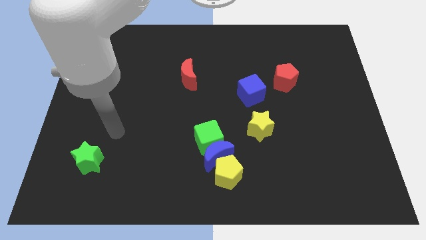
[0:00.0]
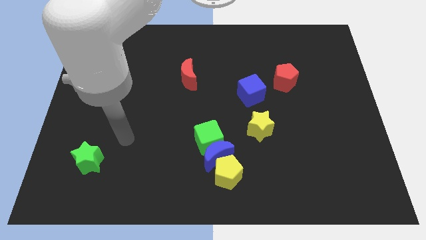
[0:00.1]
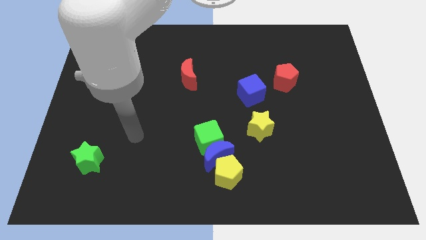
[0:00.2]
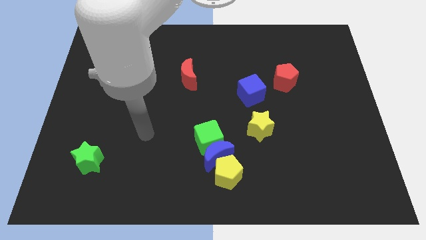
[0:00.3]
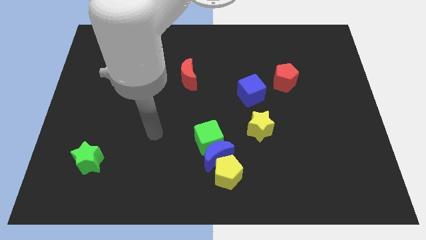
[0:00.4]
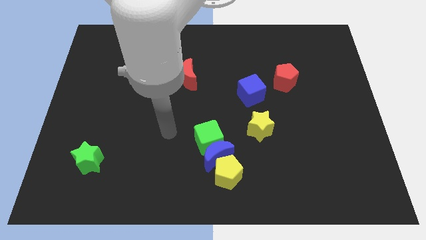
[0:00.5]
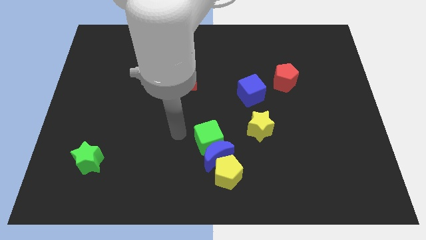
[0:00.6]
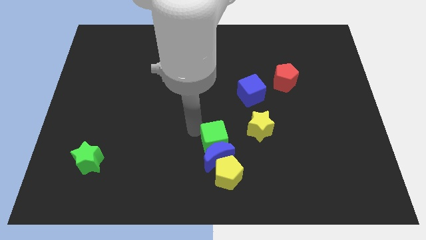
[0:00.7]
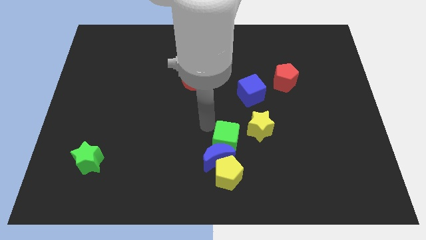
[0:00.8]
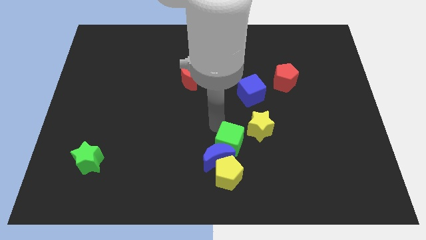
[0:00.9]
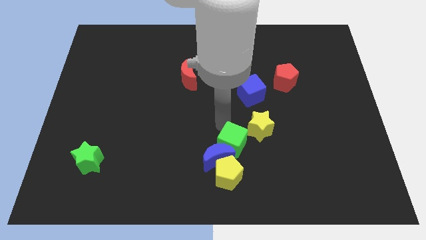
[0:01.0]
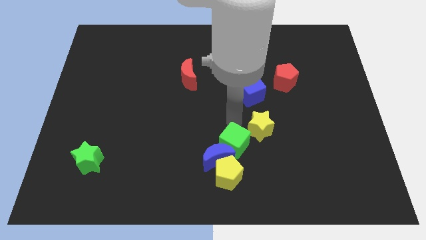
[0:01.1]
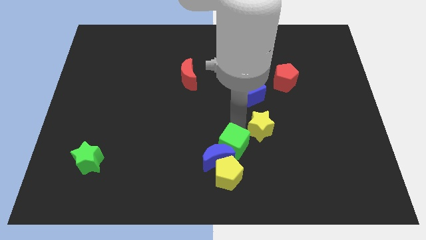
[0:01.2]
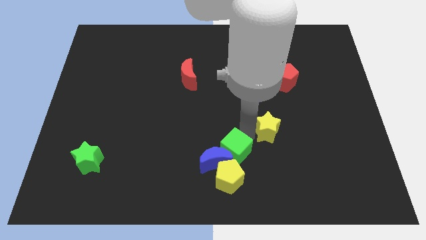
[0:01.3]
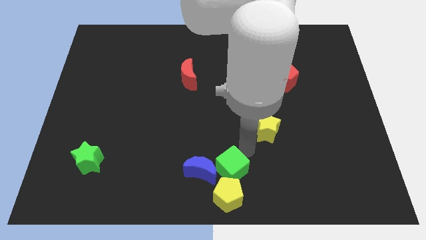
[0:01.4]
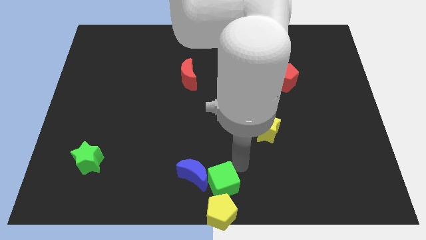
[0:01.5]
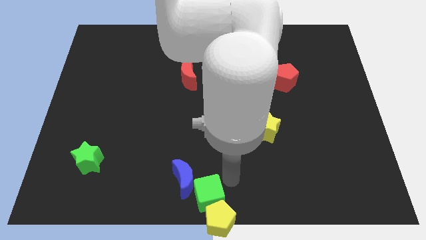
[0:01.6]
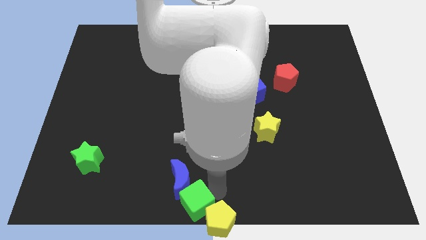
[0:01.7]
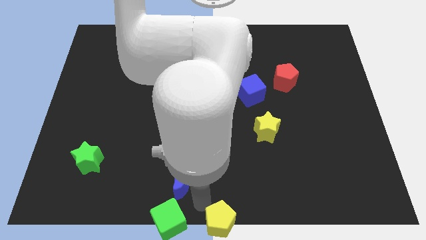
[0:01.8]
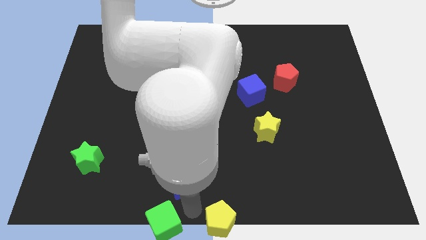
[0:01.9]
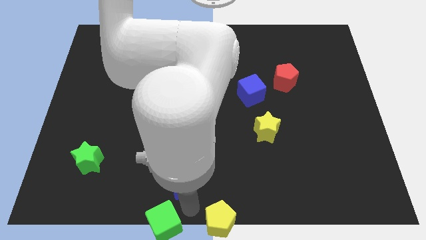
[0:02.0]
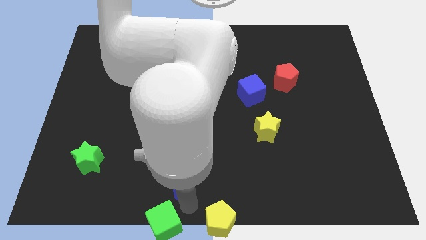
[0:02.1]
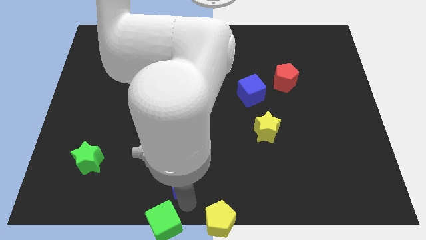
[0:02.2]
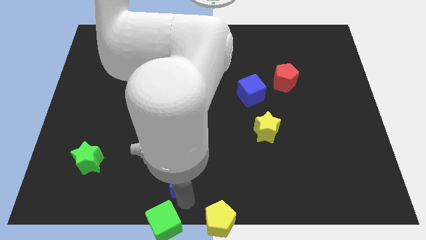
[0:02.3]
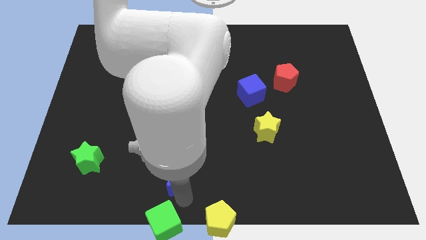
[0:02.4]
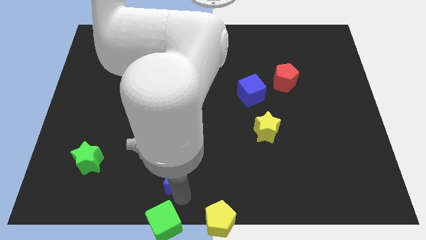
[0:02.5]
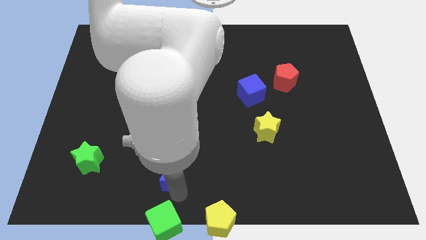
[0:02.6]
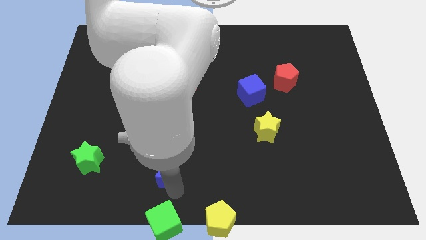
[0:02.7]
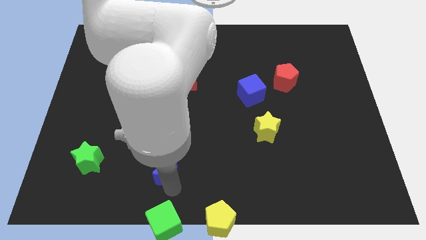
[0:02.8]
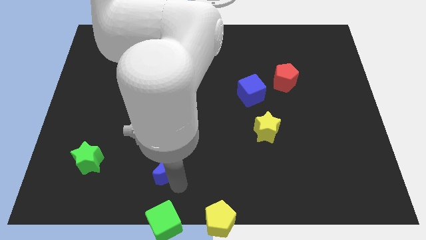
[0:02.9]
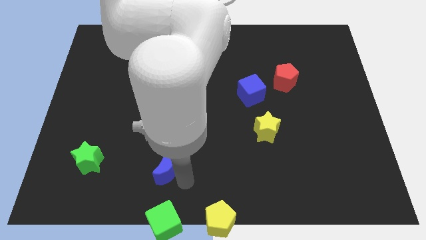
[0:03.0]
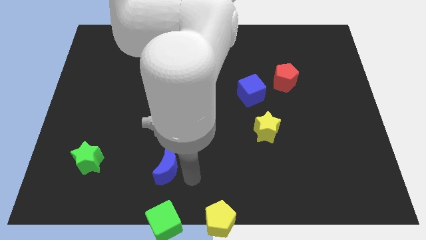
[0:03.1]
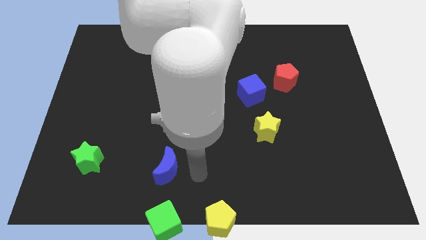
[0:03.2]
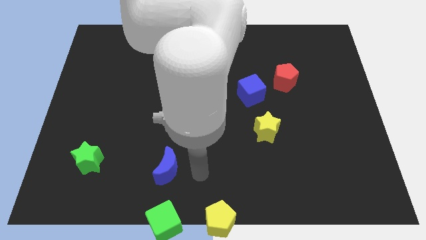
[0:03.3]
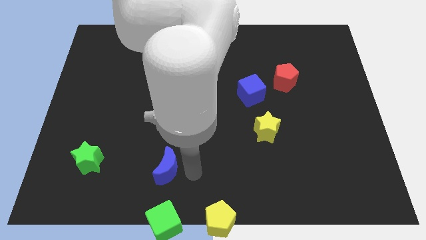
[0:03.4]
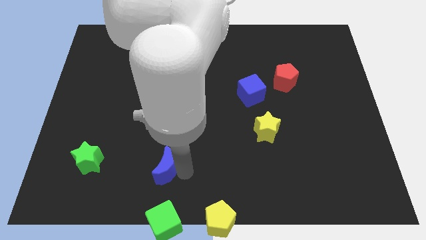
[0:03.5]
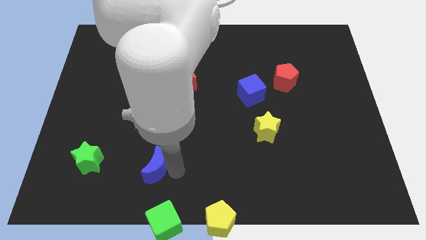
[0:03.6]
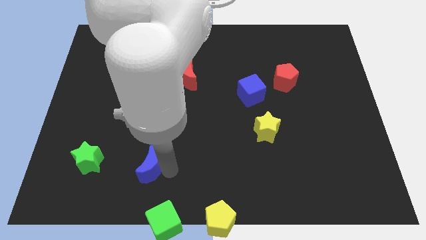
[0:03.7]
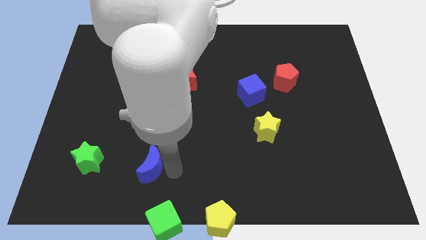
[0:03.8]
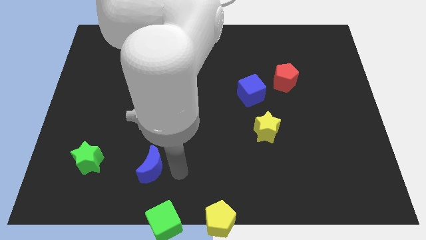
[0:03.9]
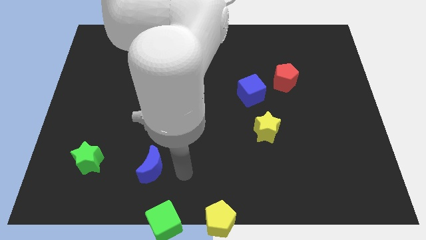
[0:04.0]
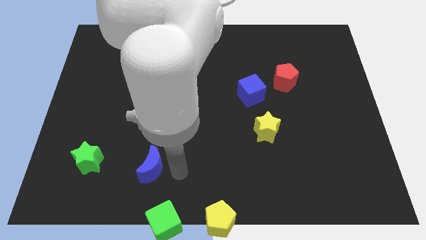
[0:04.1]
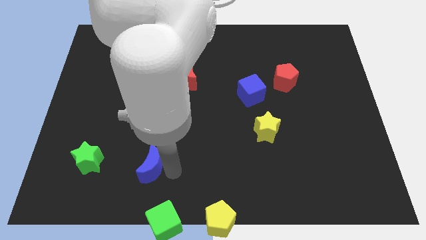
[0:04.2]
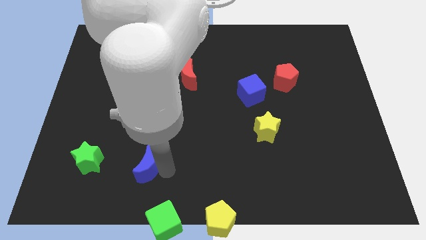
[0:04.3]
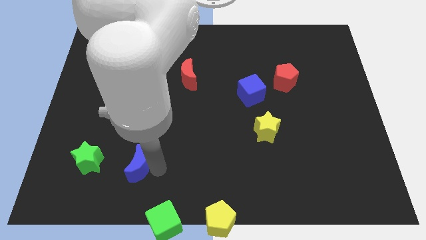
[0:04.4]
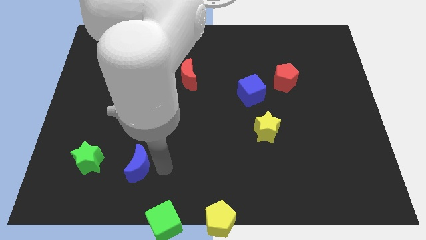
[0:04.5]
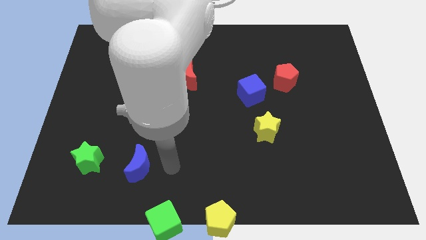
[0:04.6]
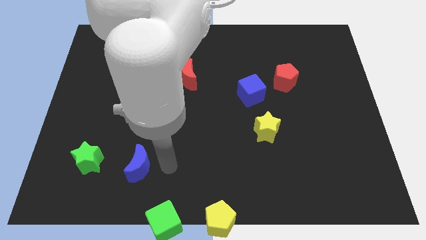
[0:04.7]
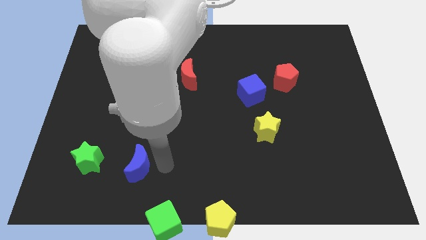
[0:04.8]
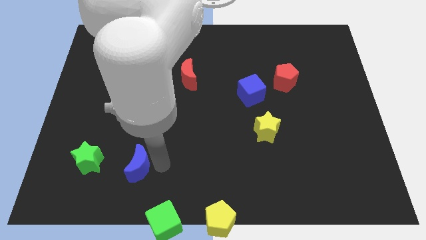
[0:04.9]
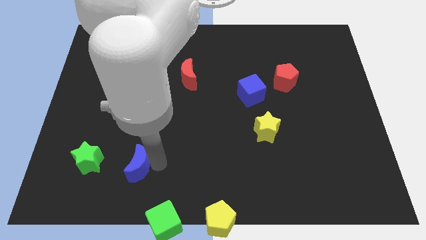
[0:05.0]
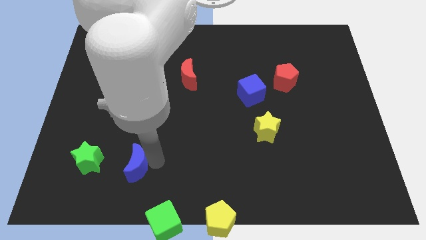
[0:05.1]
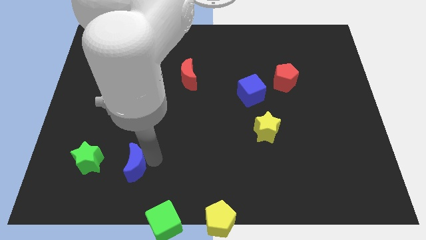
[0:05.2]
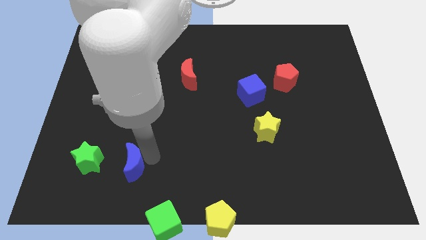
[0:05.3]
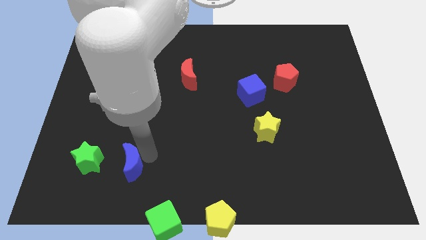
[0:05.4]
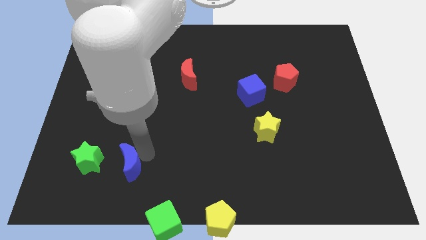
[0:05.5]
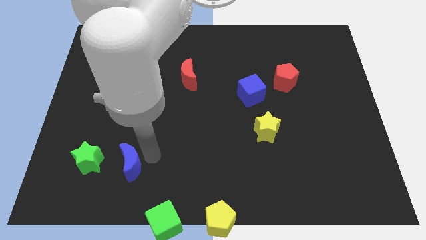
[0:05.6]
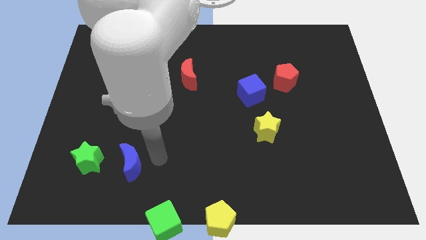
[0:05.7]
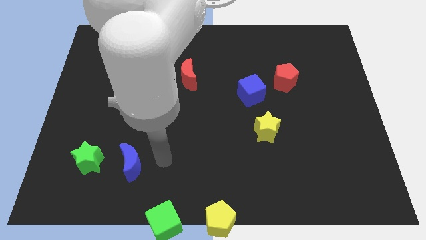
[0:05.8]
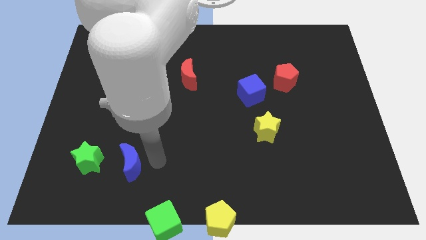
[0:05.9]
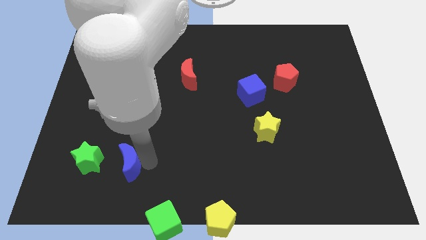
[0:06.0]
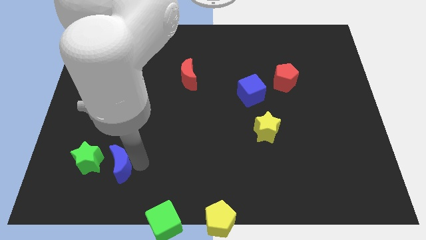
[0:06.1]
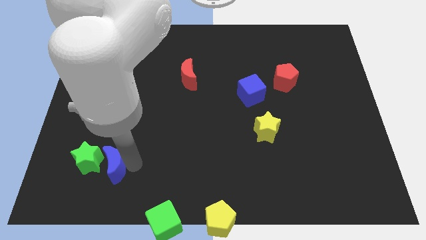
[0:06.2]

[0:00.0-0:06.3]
put the blue moon to the green star

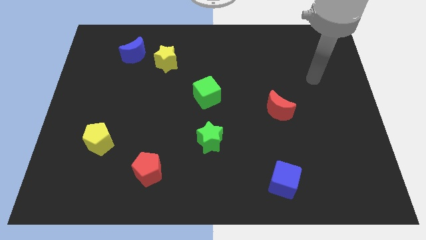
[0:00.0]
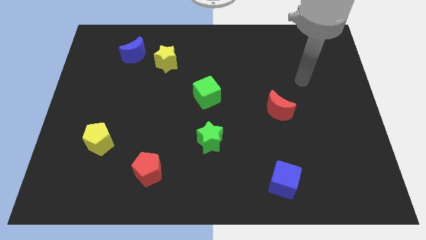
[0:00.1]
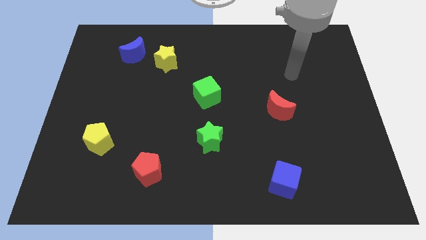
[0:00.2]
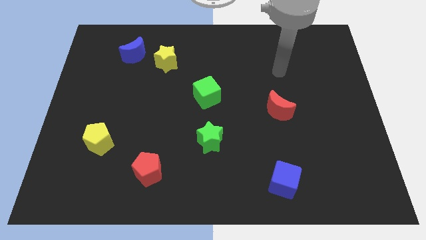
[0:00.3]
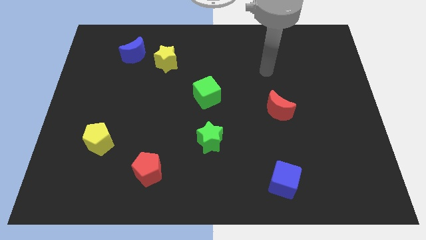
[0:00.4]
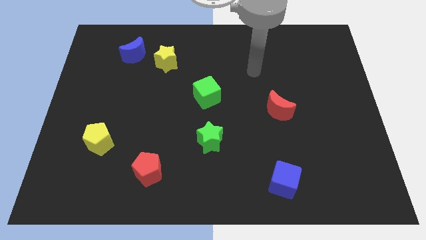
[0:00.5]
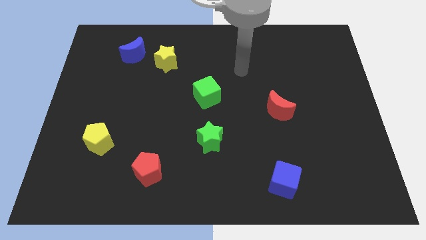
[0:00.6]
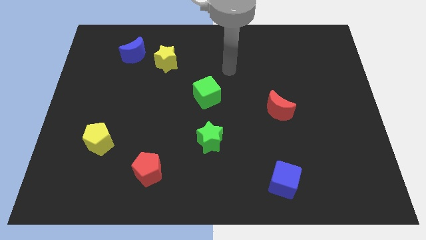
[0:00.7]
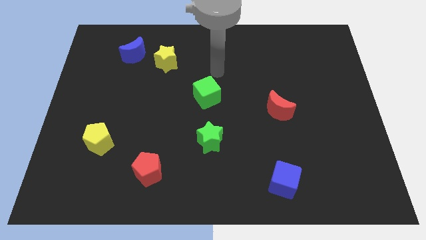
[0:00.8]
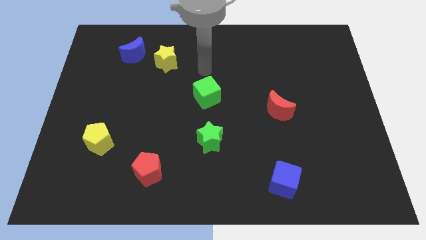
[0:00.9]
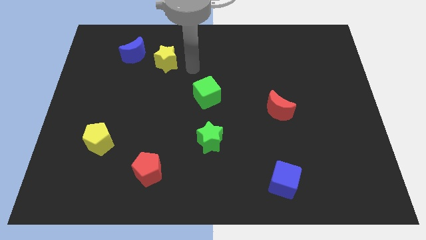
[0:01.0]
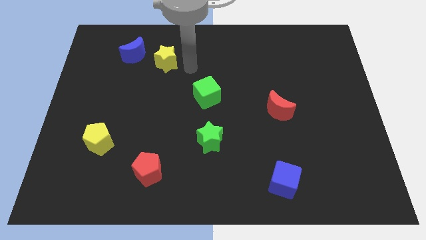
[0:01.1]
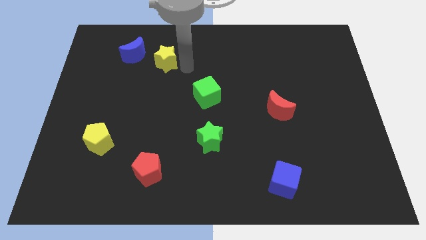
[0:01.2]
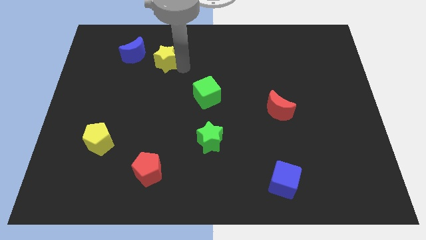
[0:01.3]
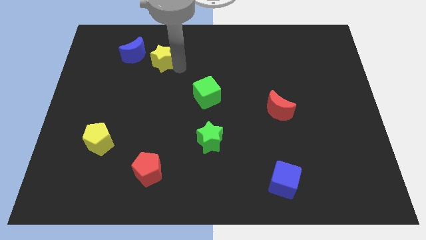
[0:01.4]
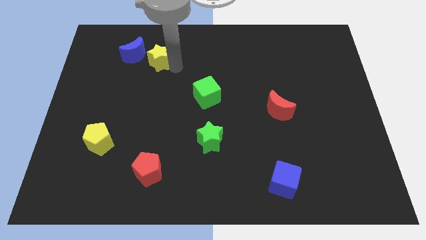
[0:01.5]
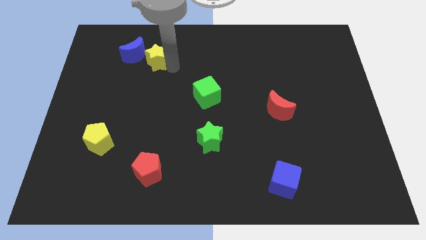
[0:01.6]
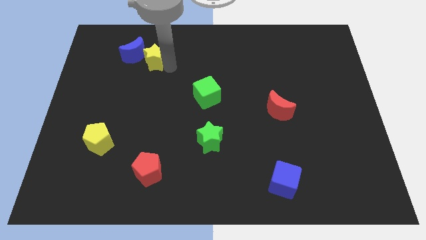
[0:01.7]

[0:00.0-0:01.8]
push the yellow star next to the blue moon
